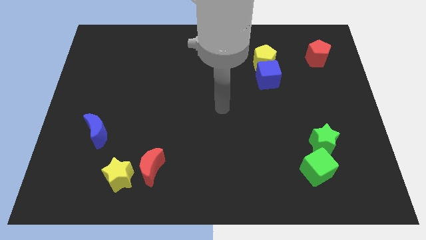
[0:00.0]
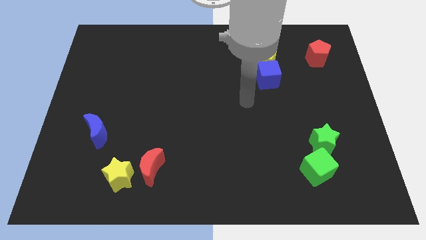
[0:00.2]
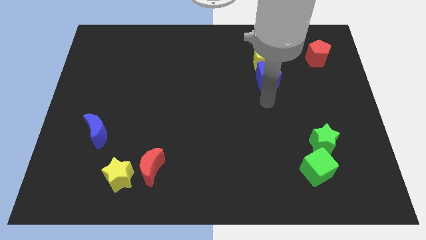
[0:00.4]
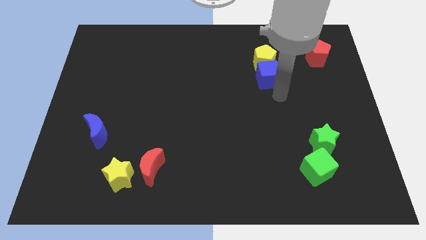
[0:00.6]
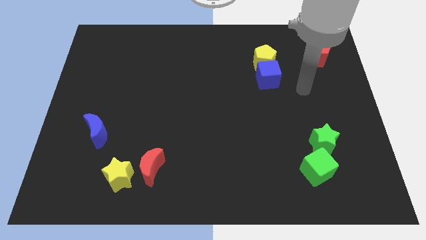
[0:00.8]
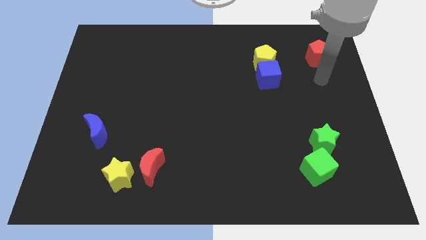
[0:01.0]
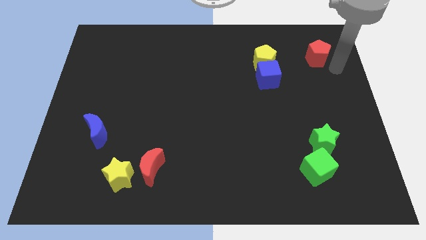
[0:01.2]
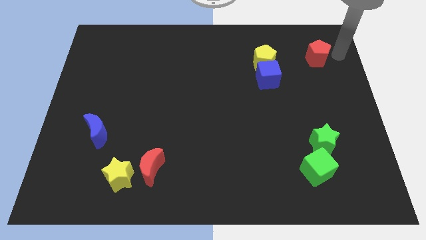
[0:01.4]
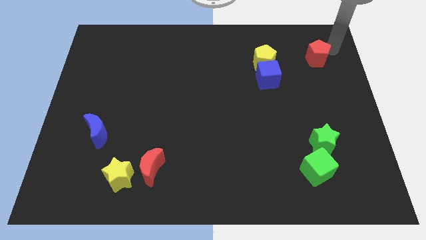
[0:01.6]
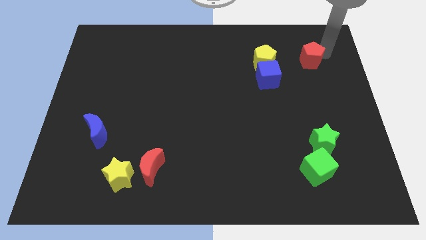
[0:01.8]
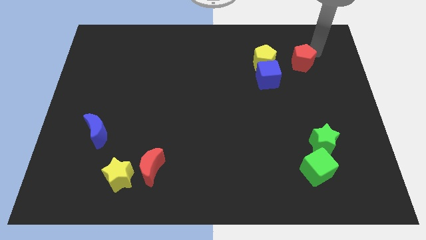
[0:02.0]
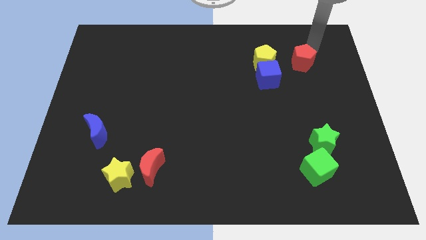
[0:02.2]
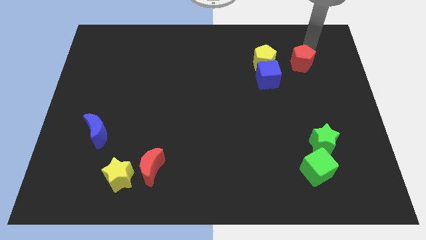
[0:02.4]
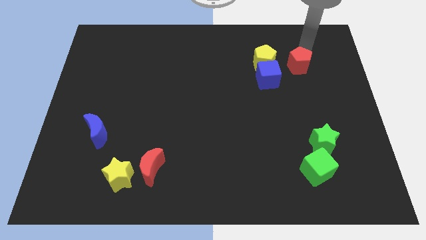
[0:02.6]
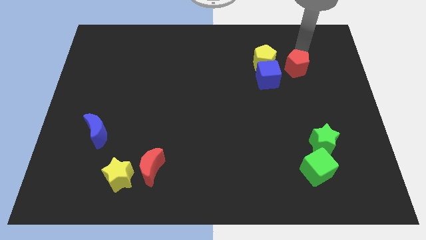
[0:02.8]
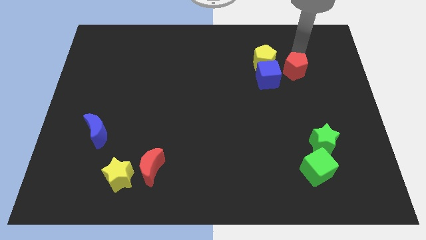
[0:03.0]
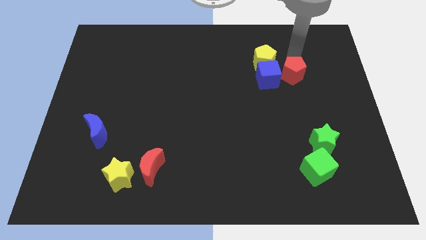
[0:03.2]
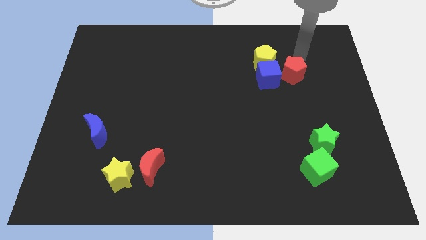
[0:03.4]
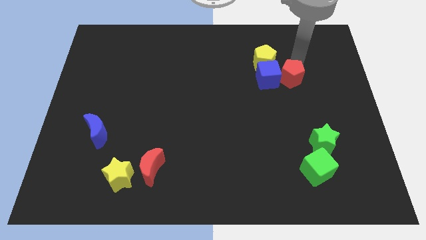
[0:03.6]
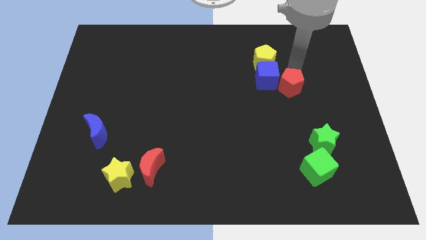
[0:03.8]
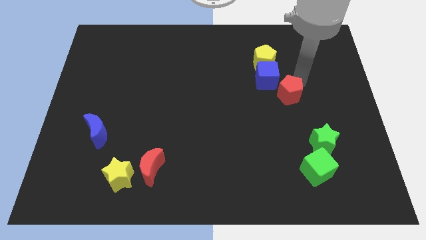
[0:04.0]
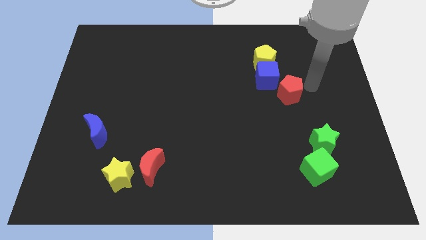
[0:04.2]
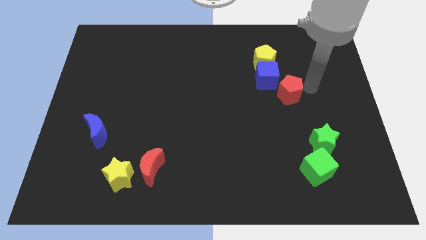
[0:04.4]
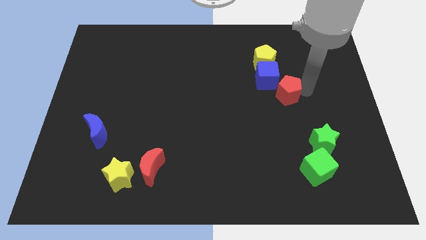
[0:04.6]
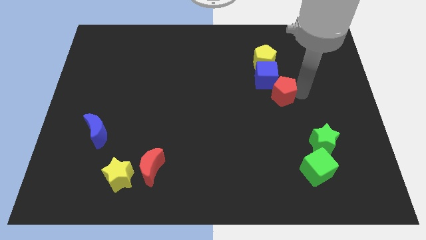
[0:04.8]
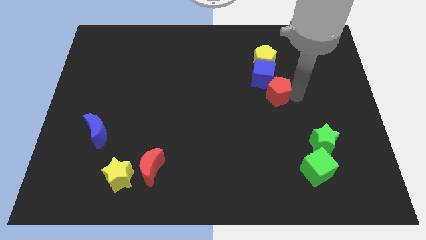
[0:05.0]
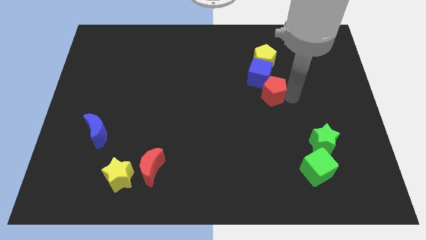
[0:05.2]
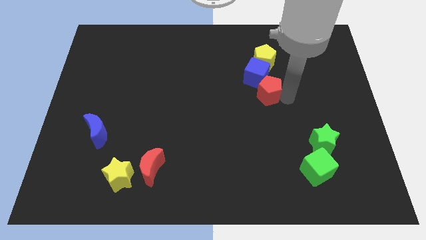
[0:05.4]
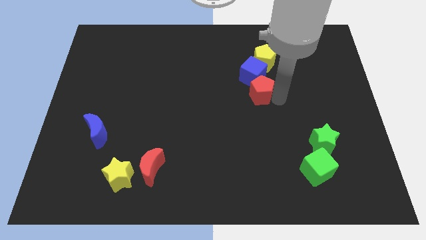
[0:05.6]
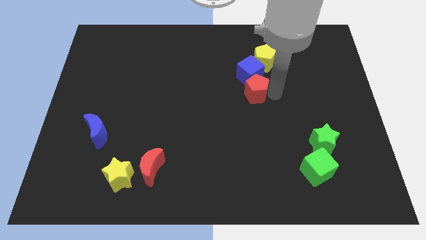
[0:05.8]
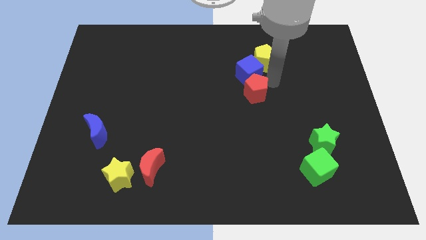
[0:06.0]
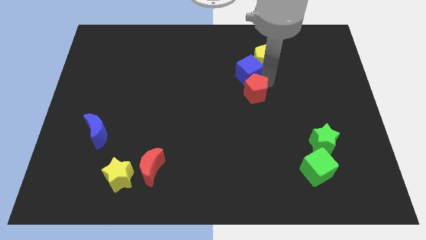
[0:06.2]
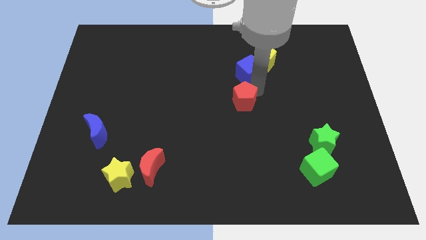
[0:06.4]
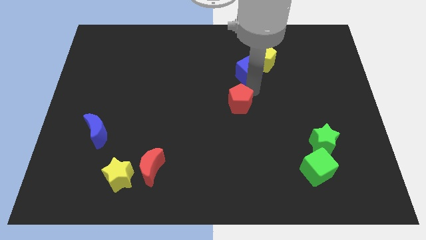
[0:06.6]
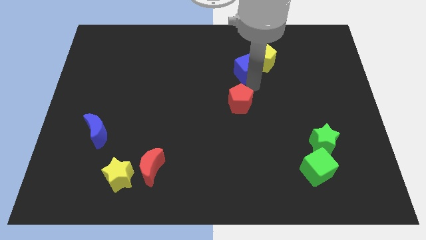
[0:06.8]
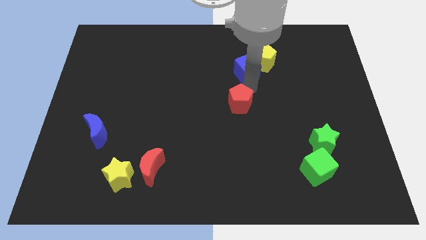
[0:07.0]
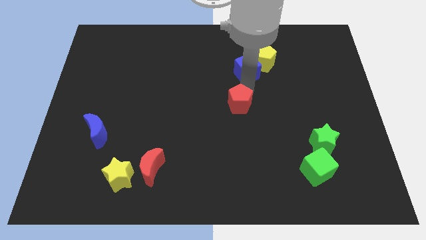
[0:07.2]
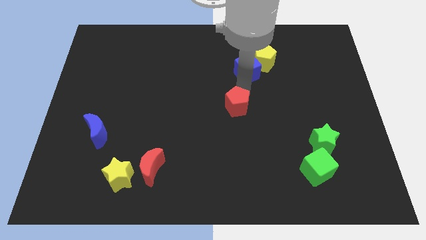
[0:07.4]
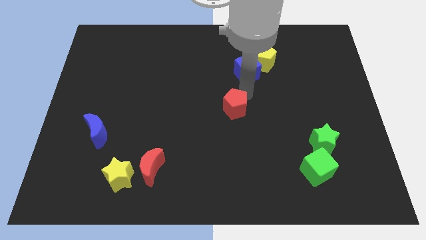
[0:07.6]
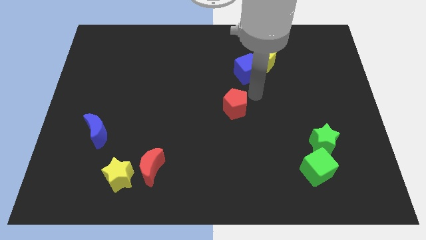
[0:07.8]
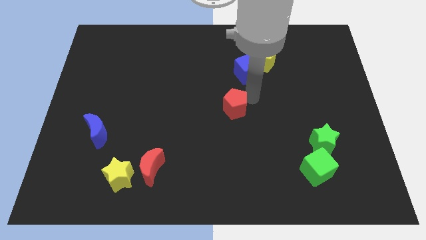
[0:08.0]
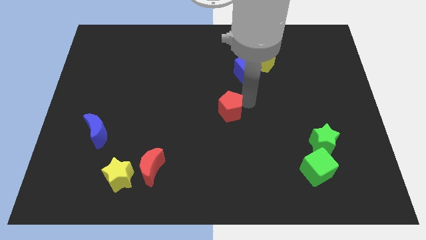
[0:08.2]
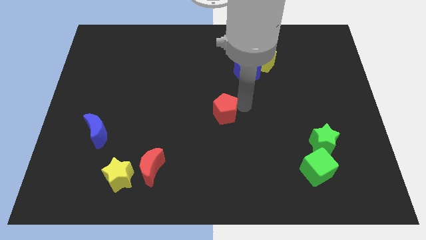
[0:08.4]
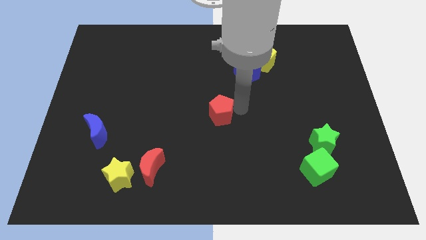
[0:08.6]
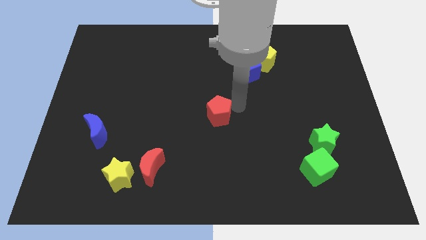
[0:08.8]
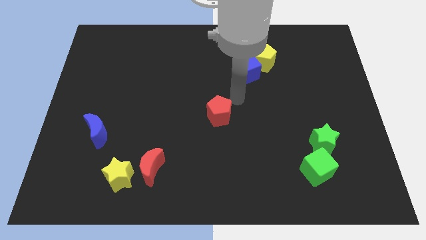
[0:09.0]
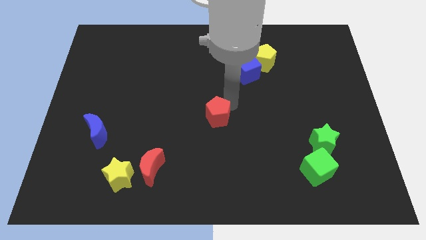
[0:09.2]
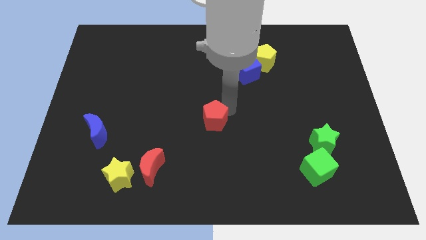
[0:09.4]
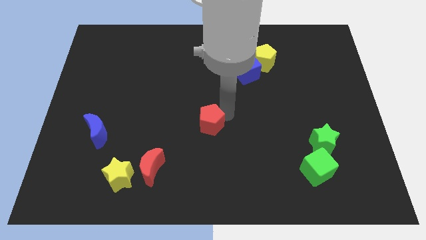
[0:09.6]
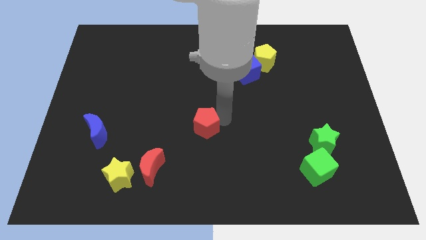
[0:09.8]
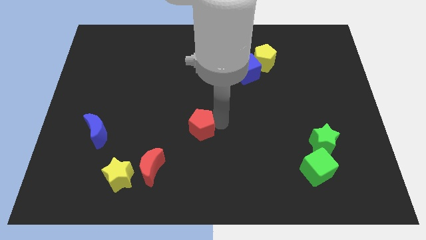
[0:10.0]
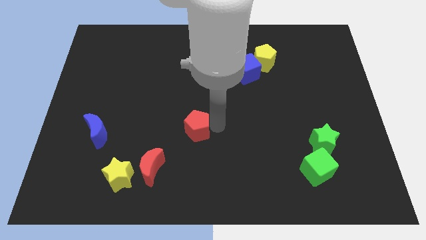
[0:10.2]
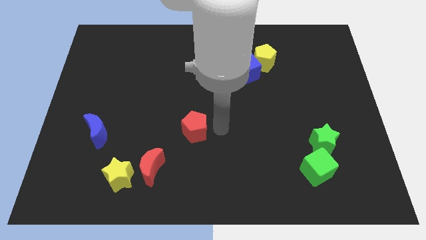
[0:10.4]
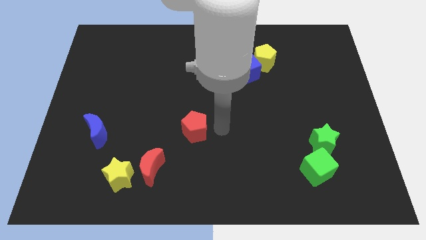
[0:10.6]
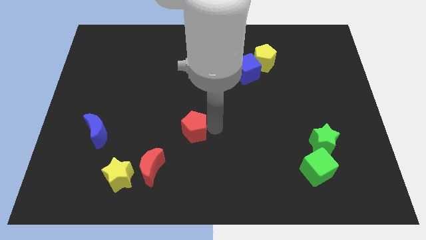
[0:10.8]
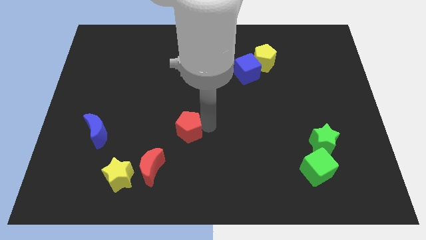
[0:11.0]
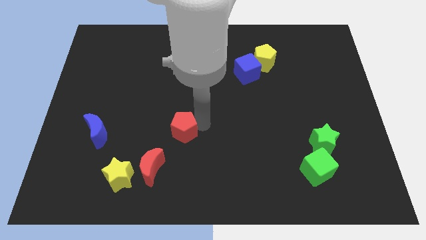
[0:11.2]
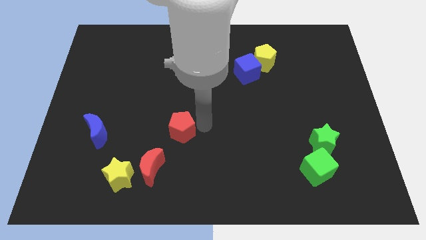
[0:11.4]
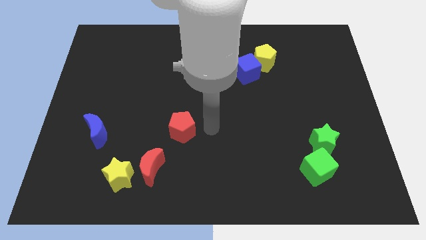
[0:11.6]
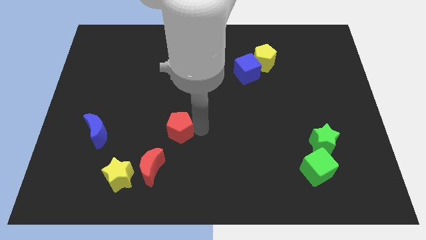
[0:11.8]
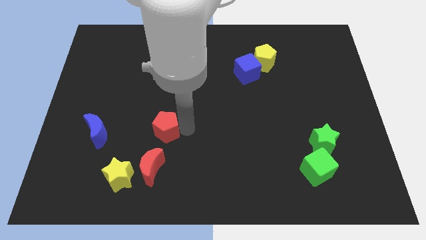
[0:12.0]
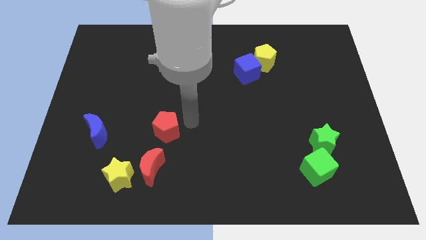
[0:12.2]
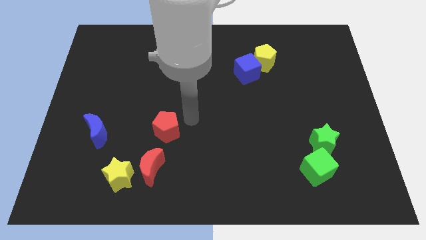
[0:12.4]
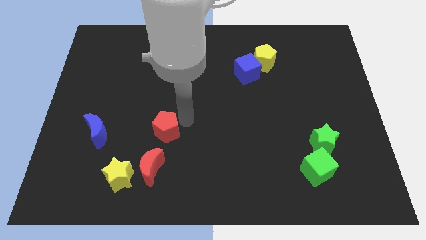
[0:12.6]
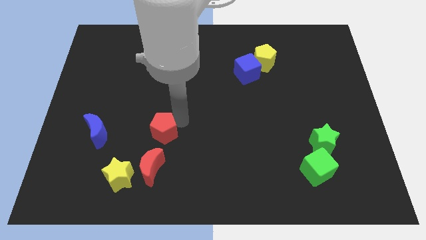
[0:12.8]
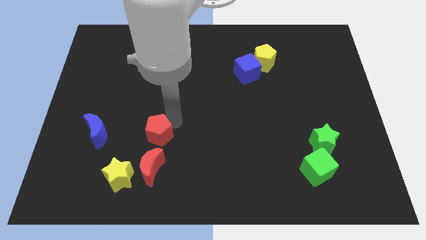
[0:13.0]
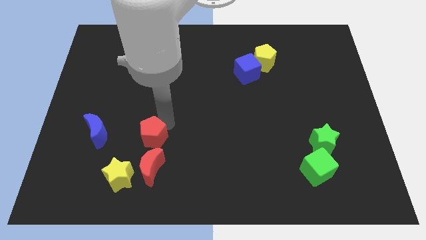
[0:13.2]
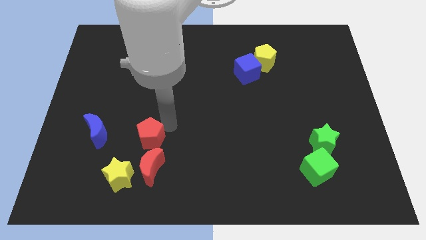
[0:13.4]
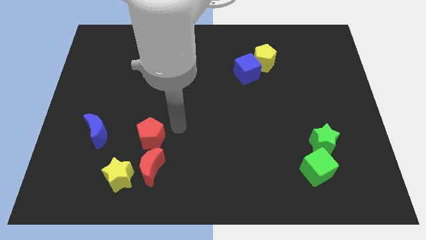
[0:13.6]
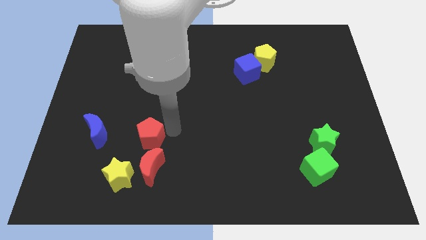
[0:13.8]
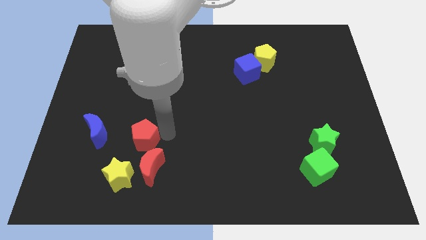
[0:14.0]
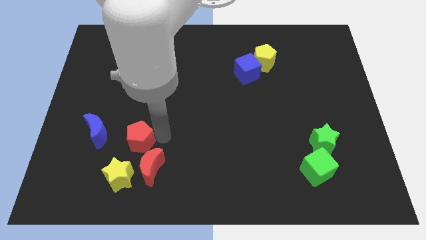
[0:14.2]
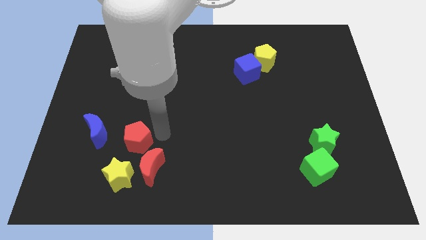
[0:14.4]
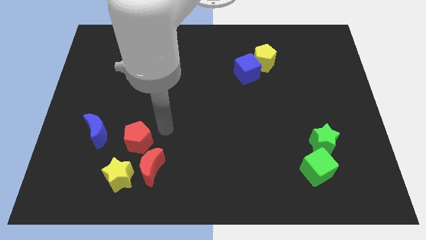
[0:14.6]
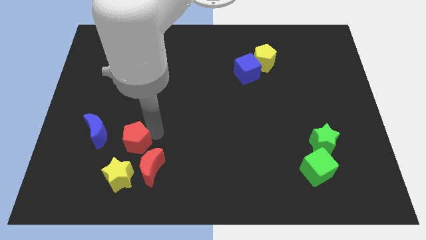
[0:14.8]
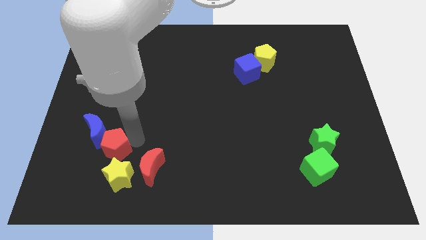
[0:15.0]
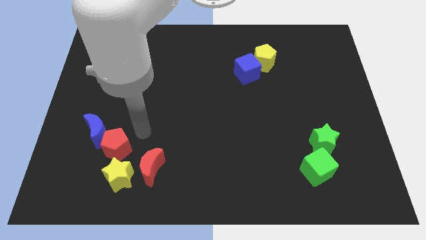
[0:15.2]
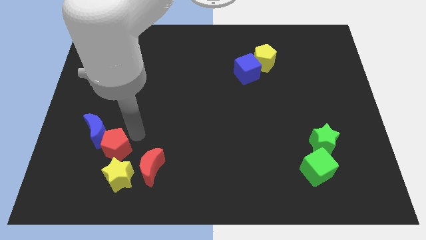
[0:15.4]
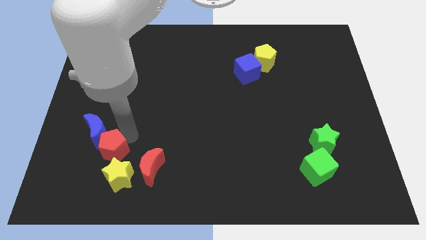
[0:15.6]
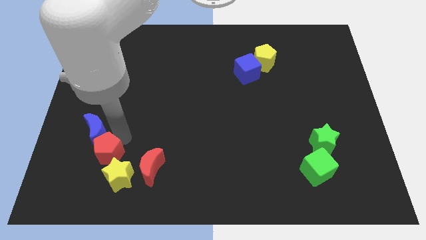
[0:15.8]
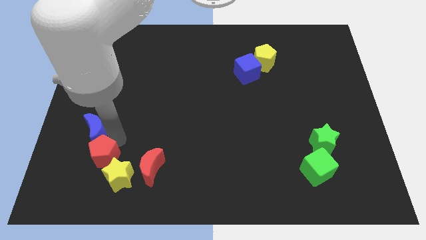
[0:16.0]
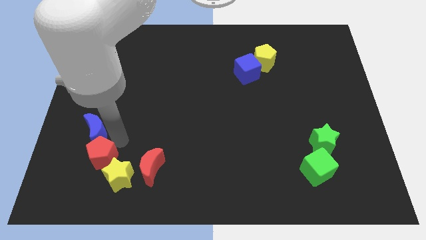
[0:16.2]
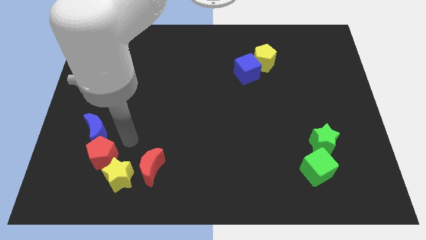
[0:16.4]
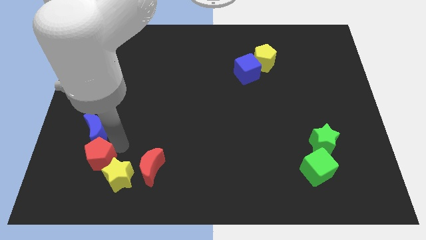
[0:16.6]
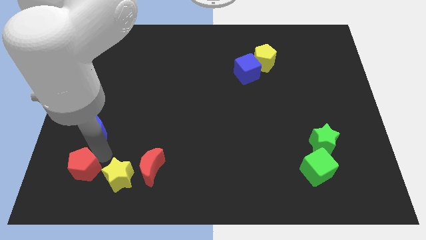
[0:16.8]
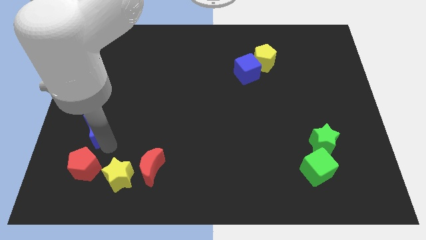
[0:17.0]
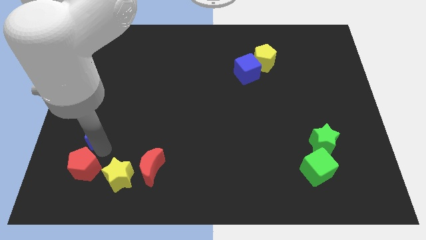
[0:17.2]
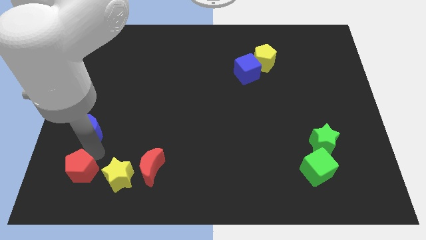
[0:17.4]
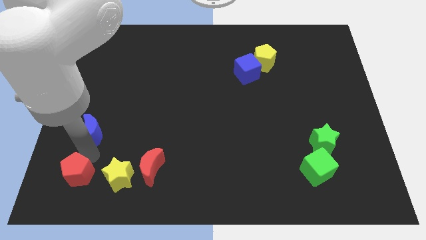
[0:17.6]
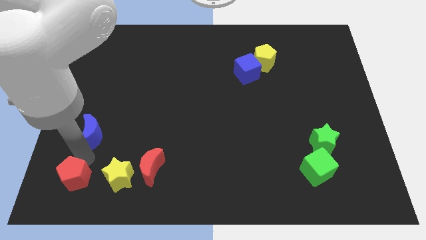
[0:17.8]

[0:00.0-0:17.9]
move the red pentagon to the bottom left
